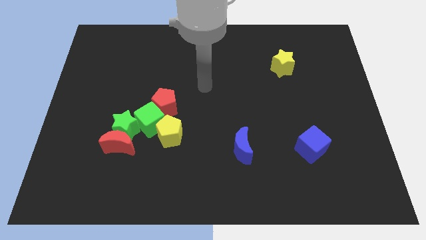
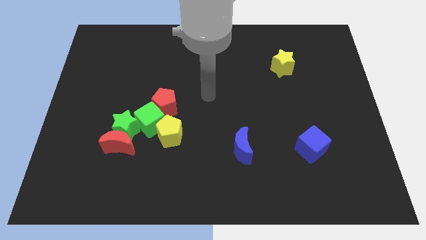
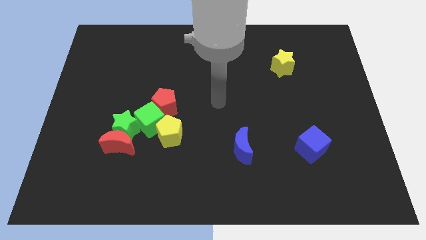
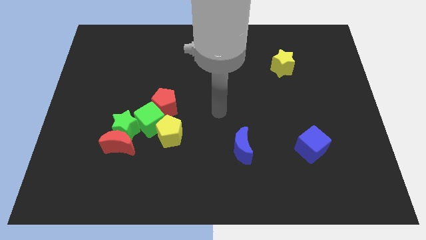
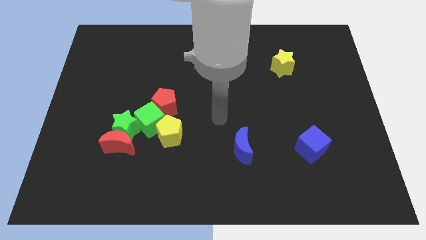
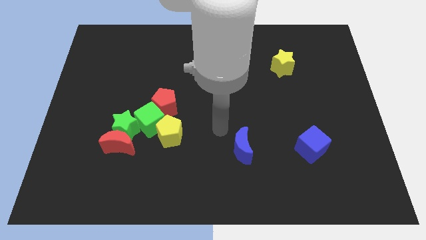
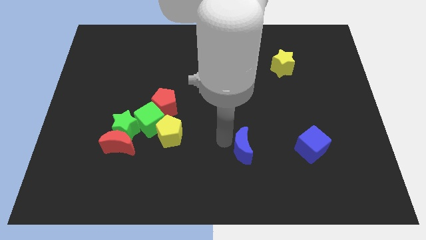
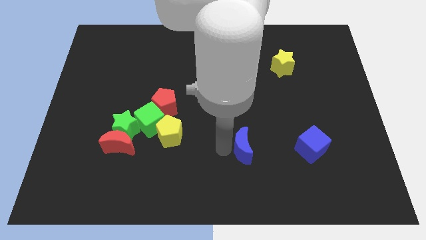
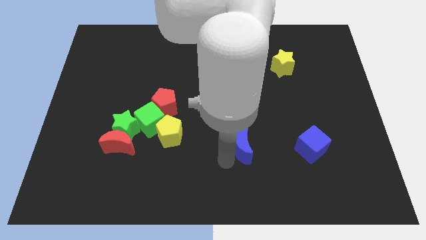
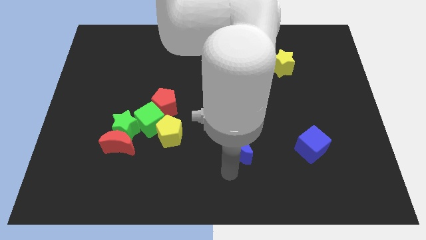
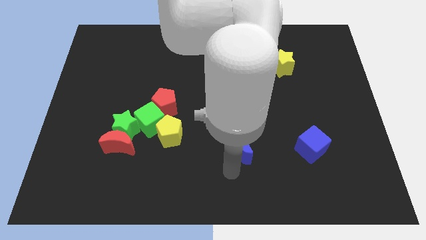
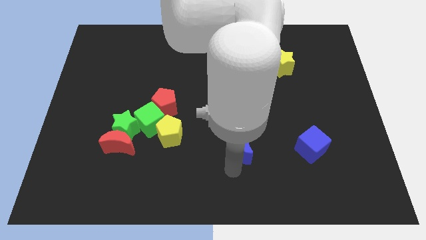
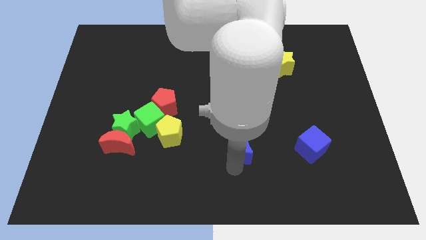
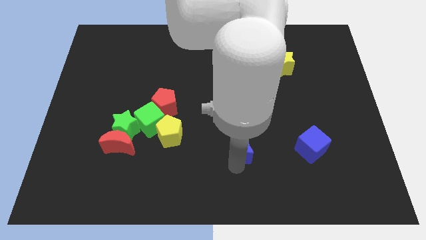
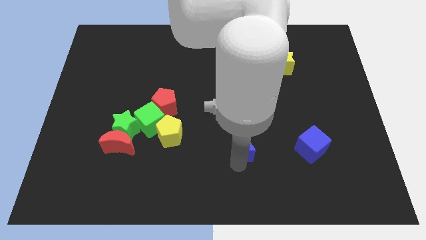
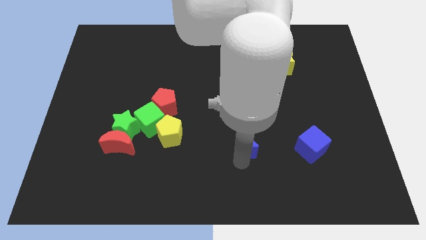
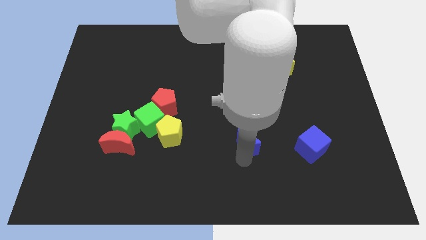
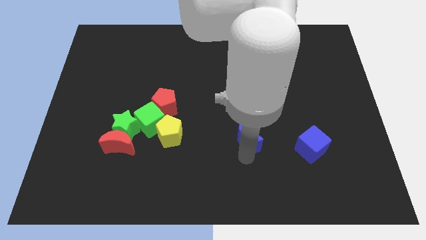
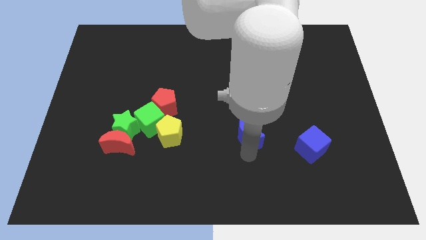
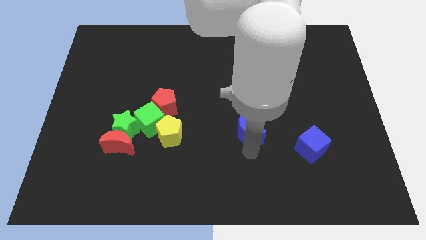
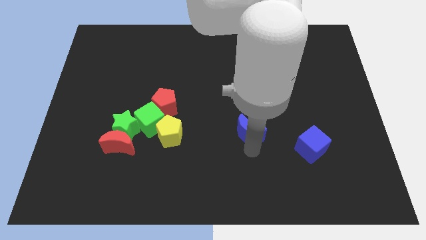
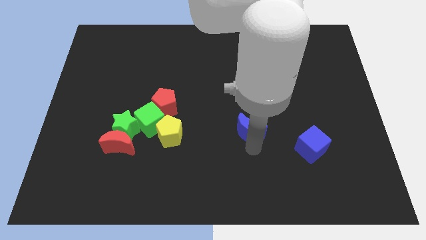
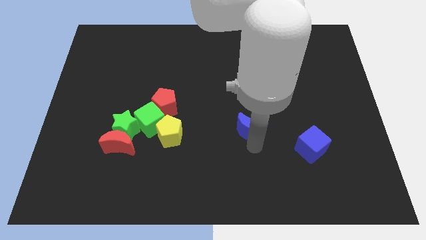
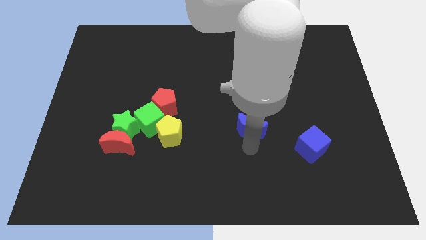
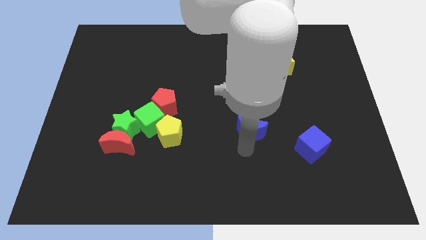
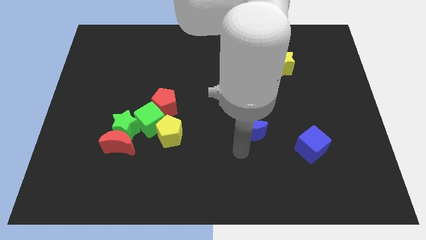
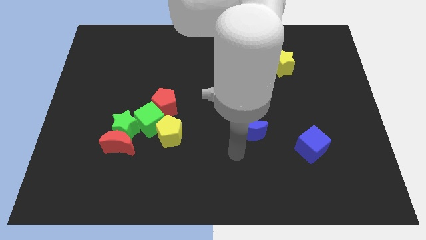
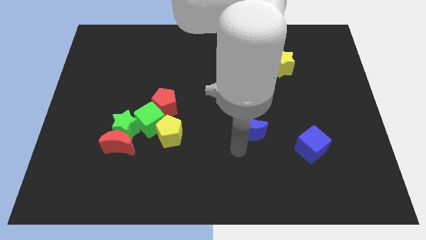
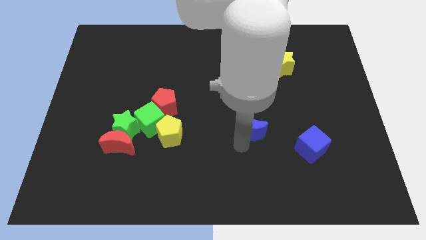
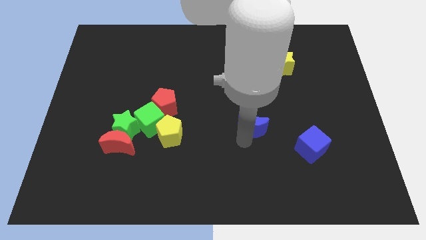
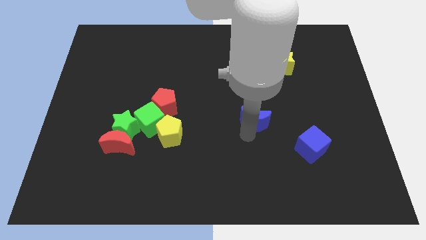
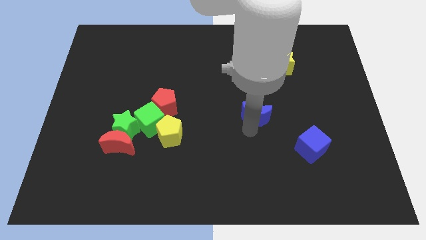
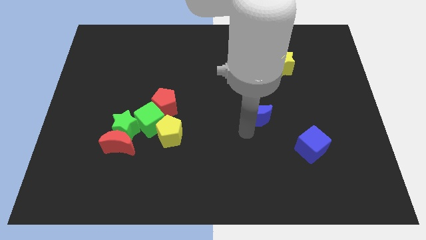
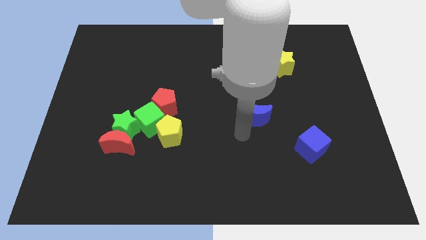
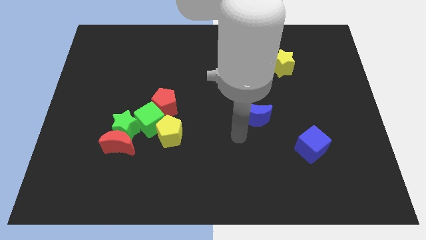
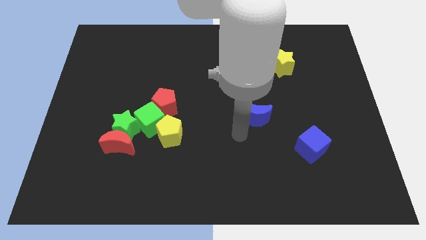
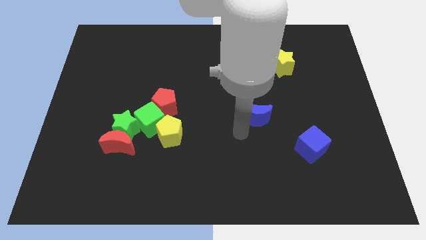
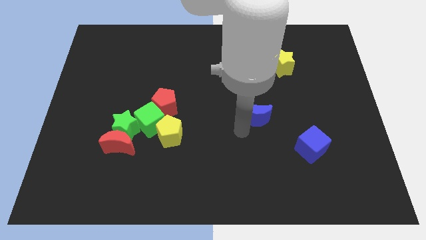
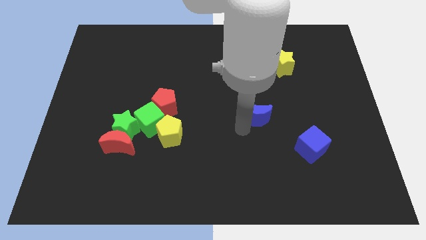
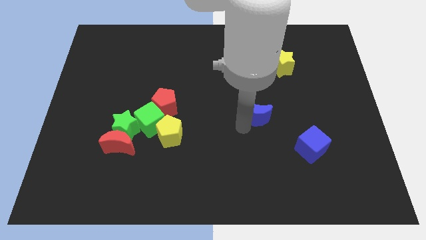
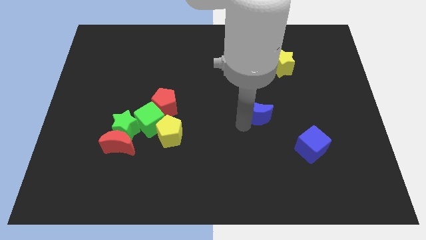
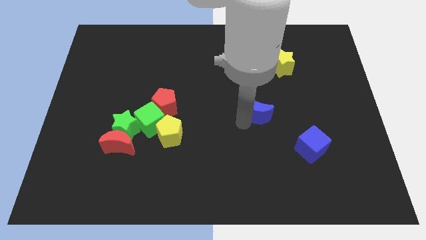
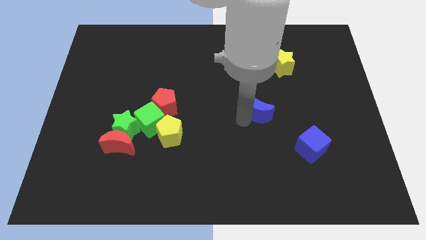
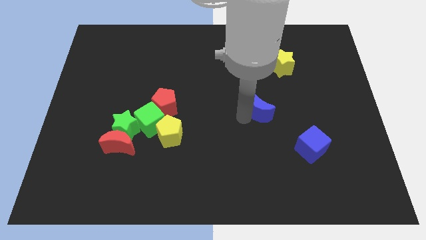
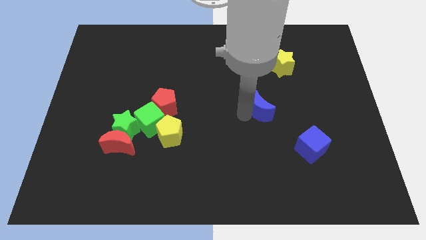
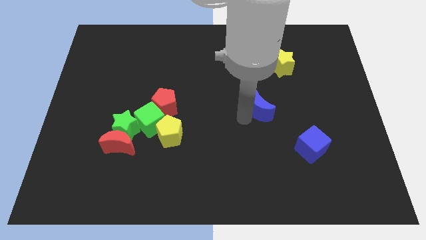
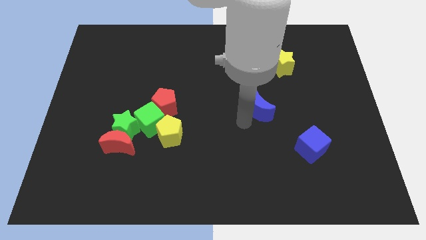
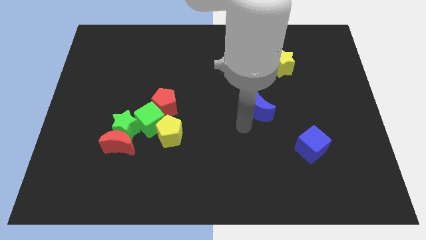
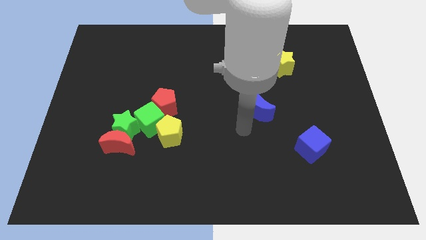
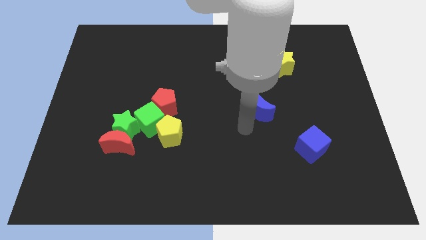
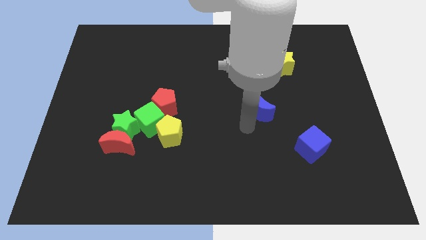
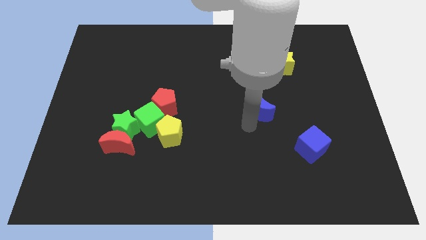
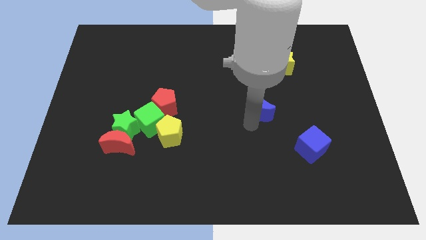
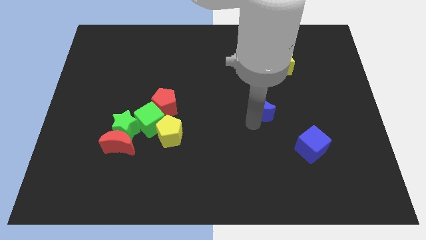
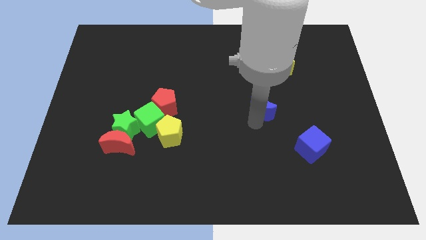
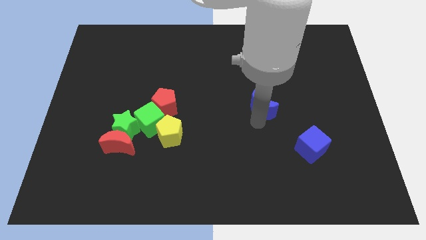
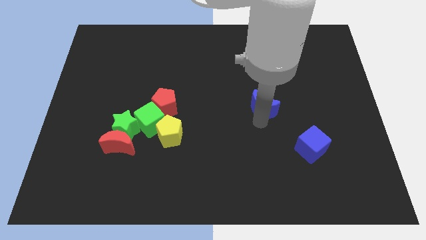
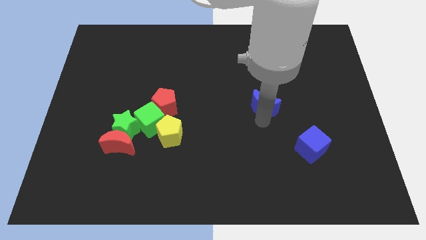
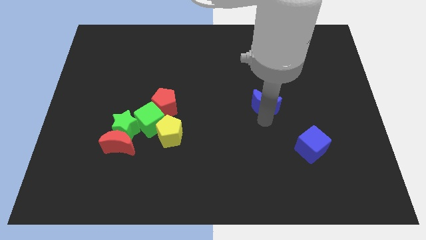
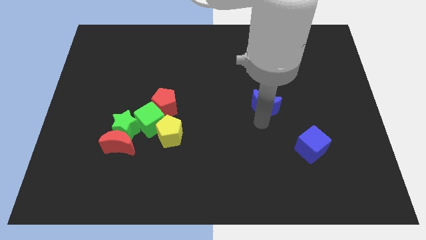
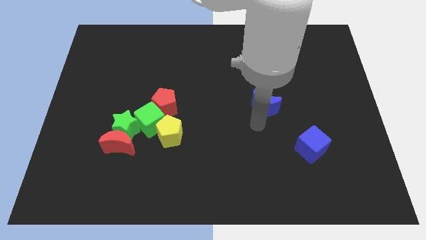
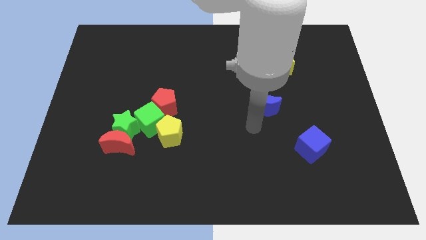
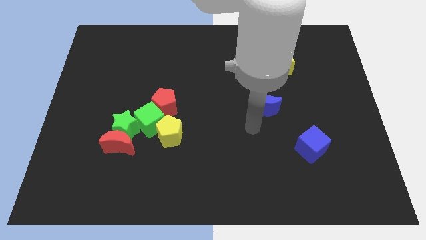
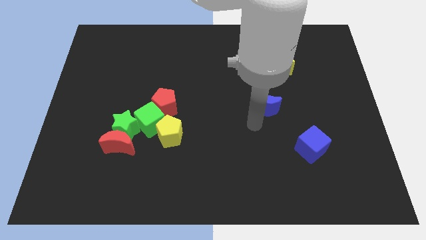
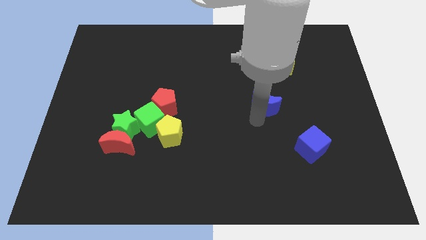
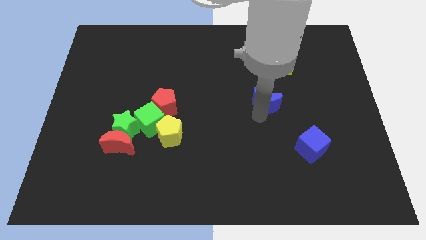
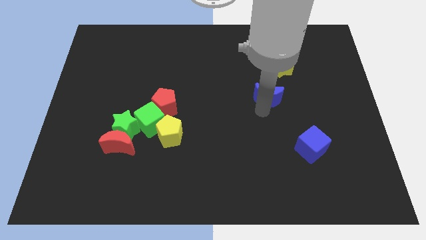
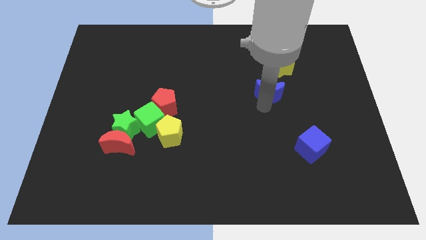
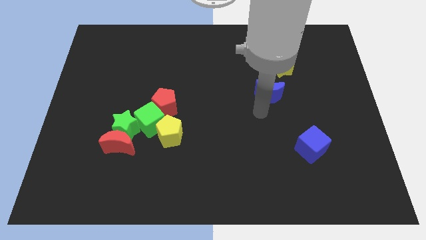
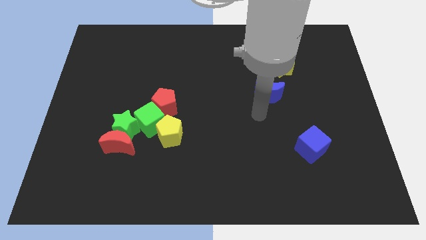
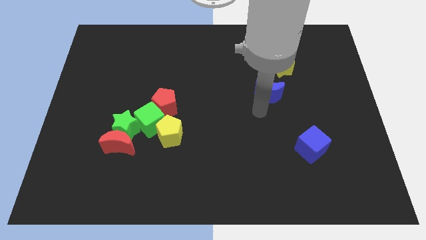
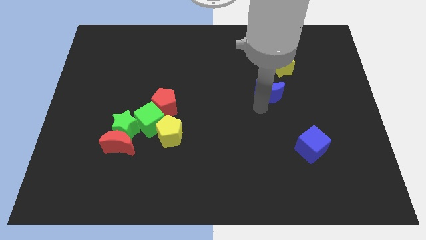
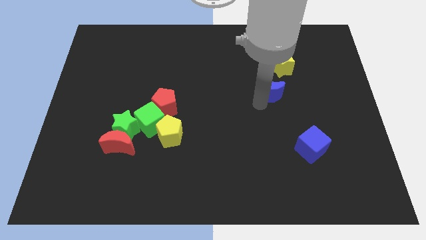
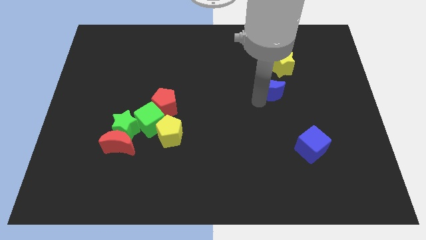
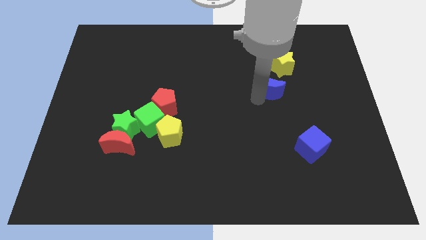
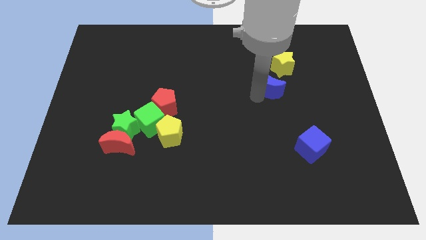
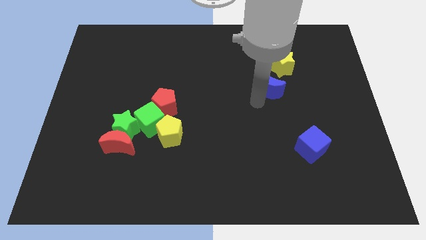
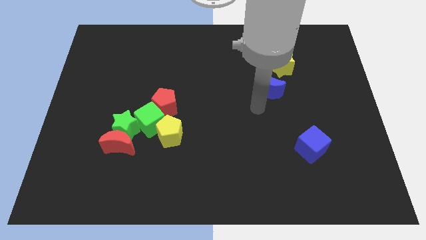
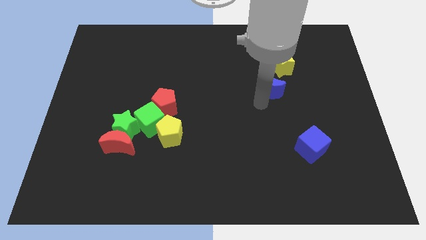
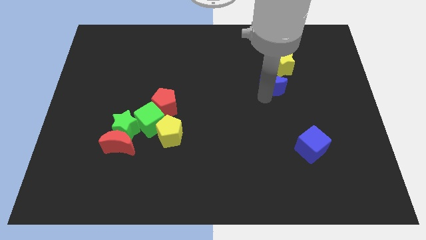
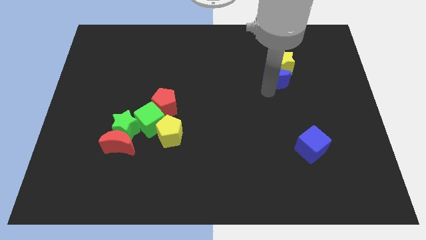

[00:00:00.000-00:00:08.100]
slide the blue moon to the yellow star

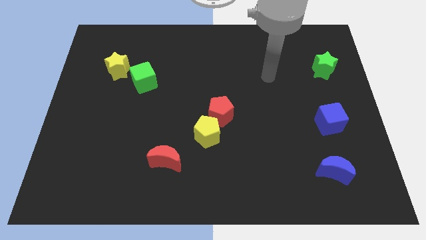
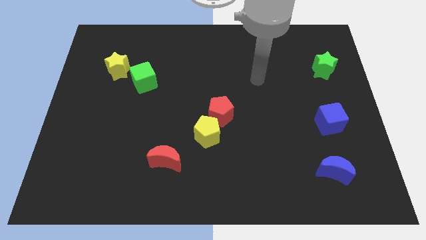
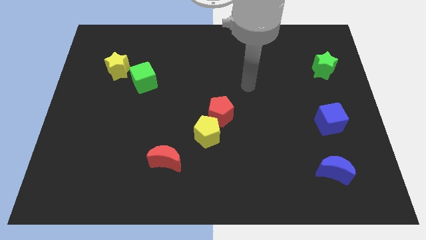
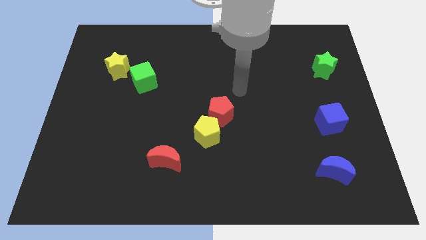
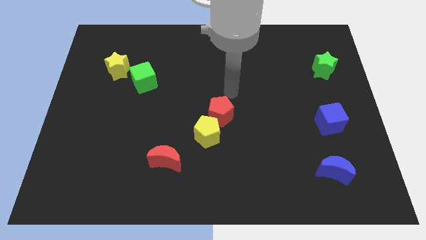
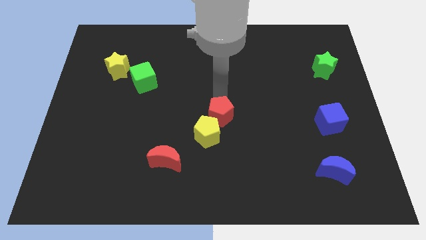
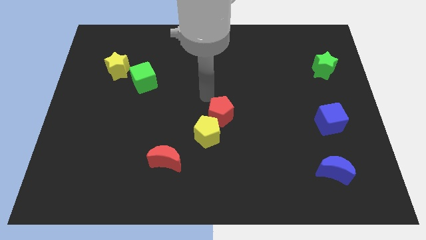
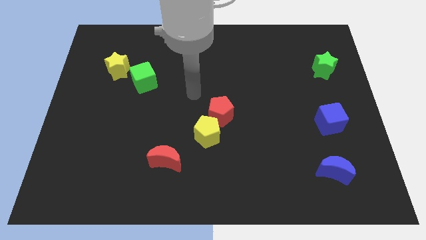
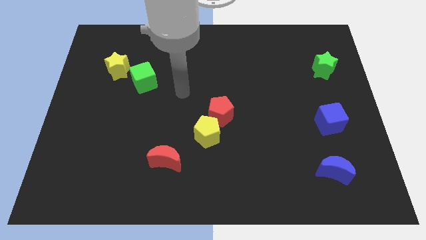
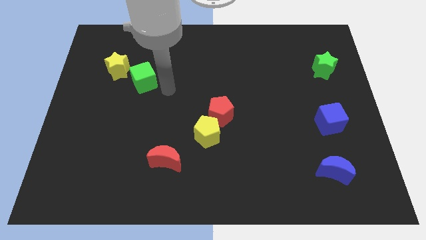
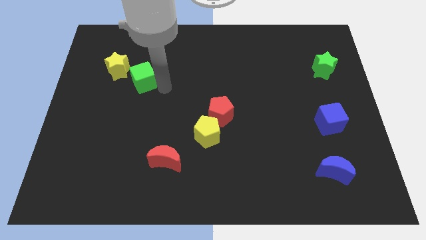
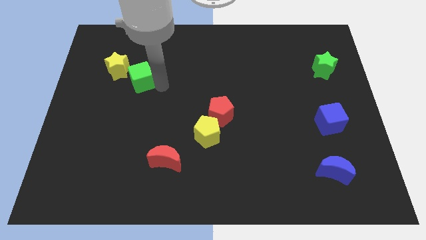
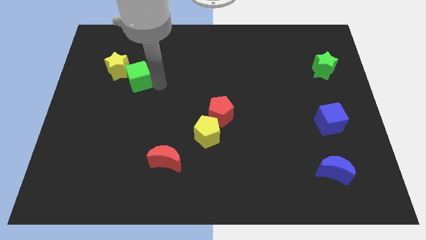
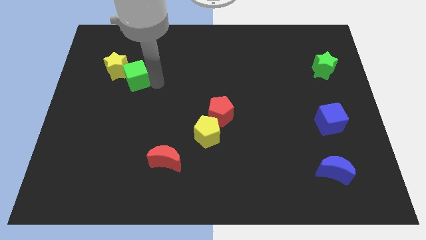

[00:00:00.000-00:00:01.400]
move the green cube towards the yellow star
